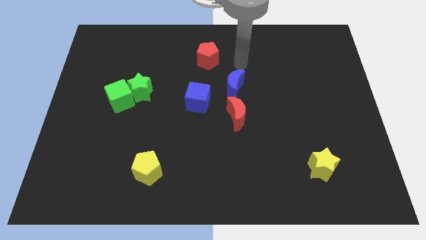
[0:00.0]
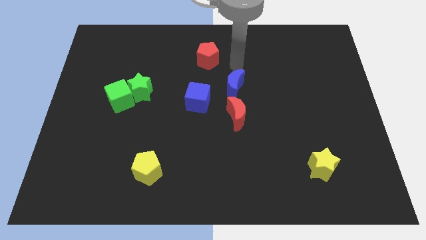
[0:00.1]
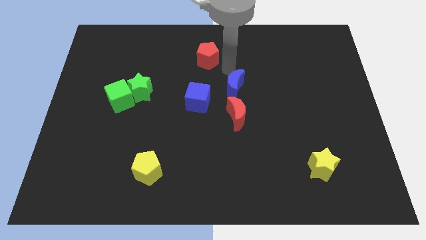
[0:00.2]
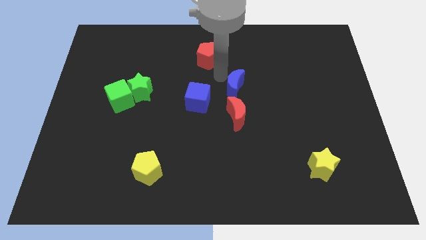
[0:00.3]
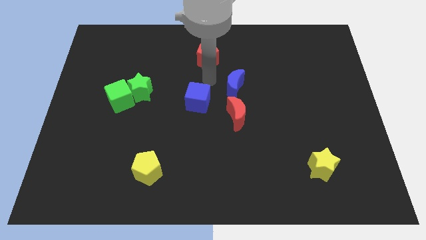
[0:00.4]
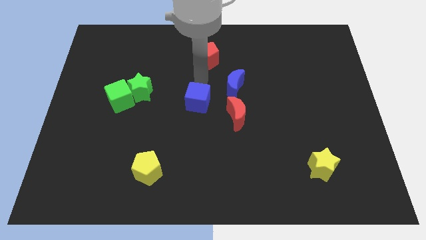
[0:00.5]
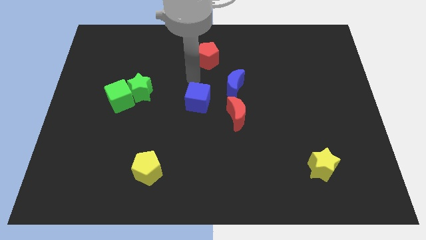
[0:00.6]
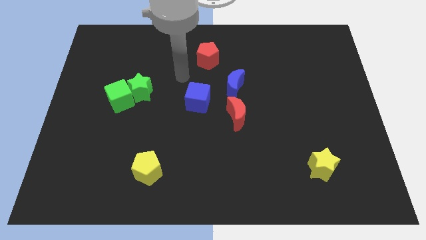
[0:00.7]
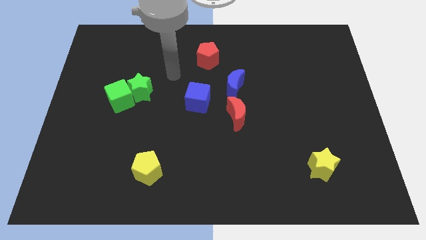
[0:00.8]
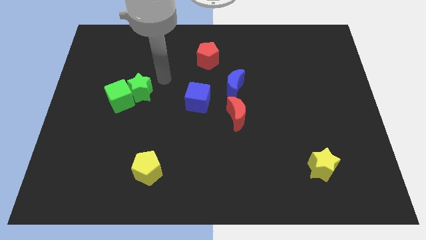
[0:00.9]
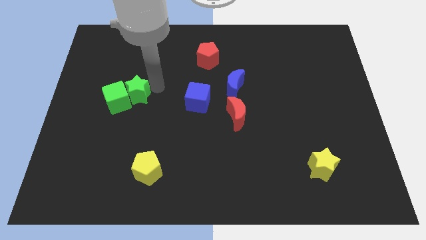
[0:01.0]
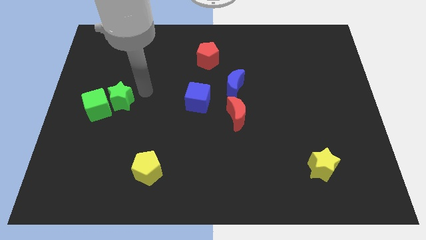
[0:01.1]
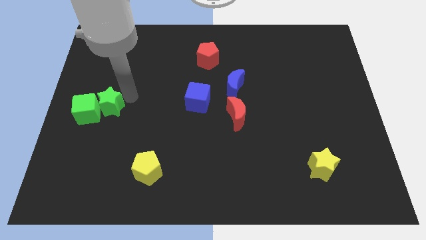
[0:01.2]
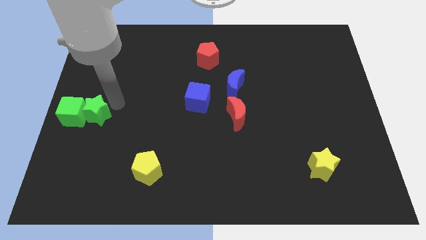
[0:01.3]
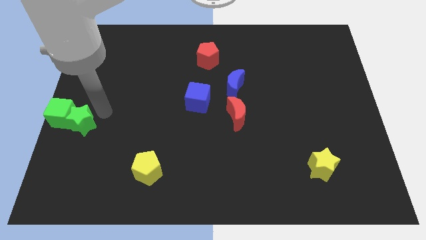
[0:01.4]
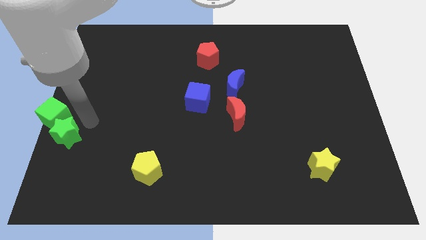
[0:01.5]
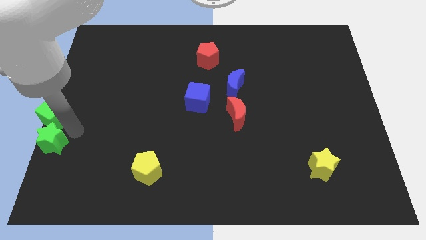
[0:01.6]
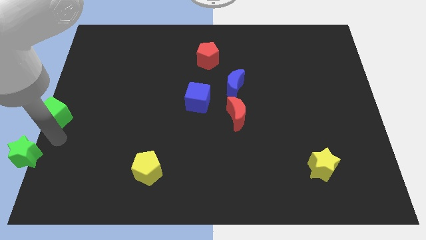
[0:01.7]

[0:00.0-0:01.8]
pull the green cube apart from the green star

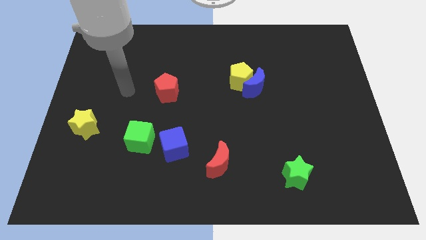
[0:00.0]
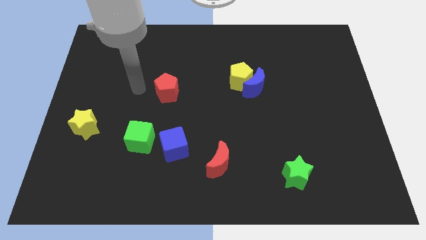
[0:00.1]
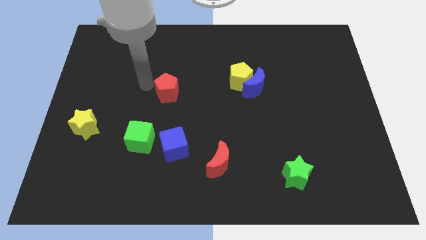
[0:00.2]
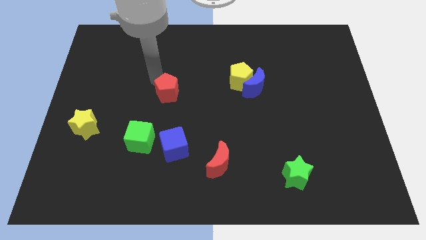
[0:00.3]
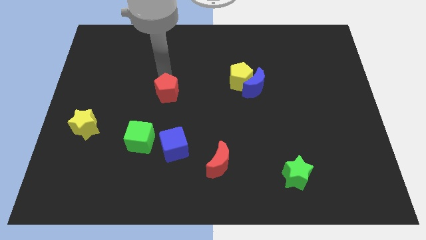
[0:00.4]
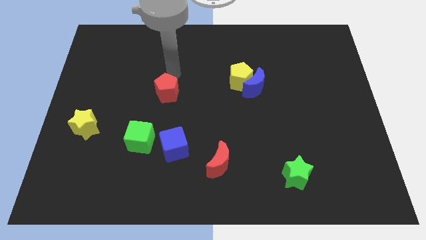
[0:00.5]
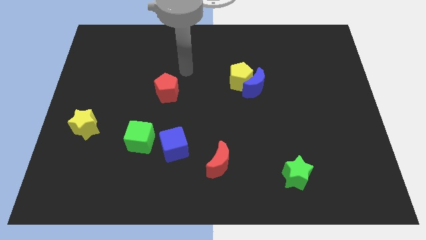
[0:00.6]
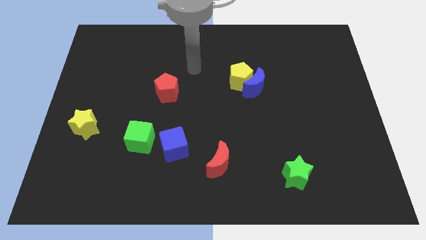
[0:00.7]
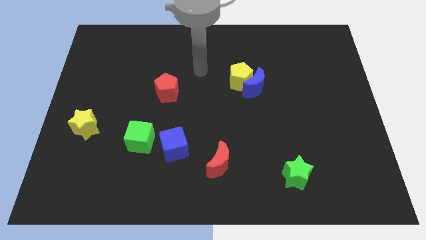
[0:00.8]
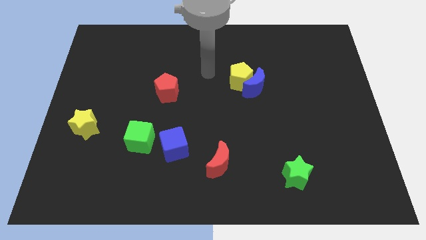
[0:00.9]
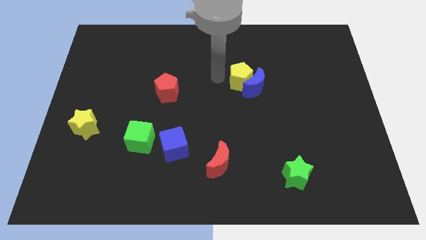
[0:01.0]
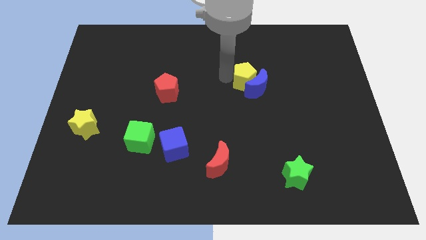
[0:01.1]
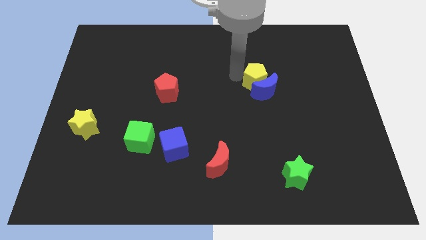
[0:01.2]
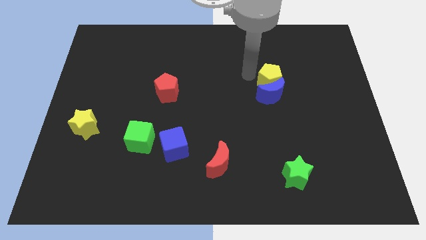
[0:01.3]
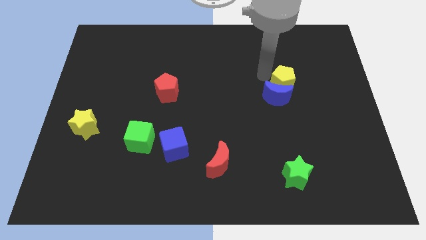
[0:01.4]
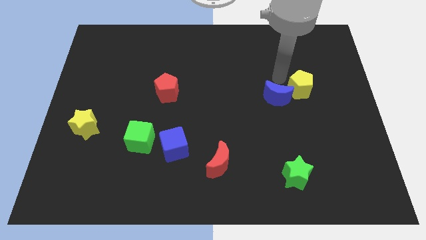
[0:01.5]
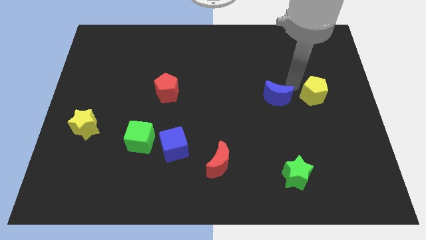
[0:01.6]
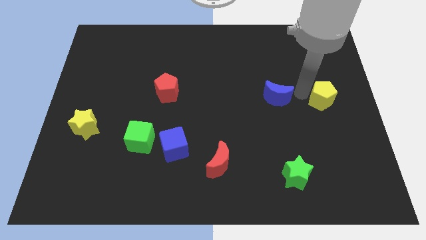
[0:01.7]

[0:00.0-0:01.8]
separate the blue moon from the yellow pentagon

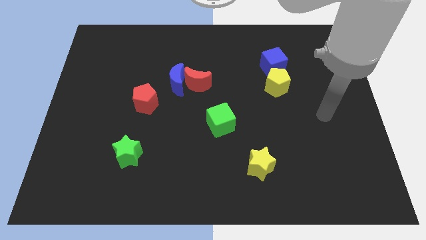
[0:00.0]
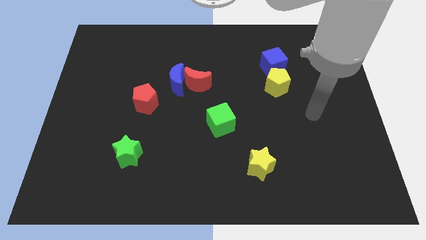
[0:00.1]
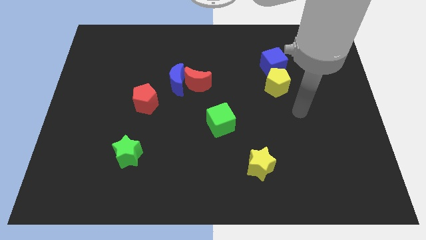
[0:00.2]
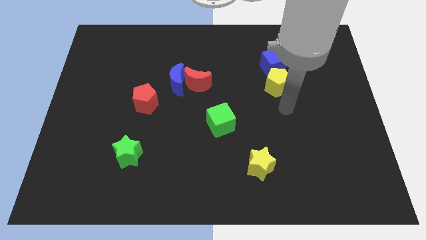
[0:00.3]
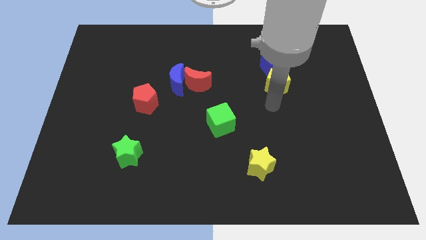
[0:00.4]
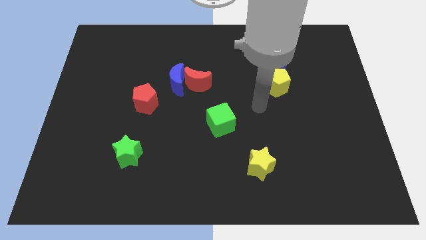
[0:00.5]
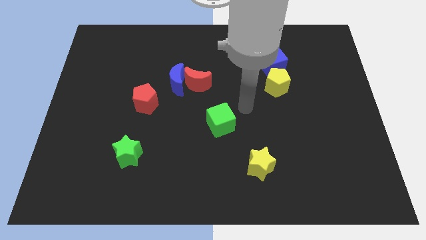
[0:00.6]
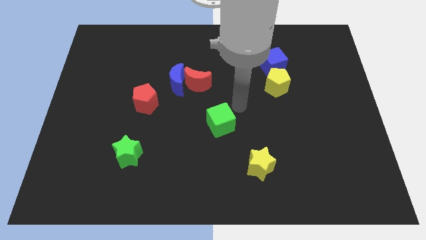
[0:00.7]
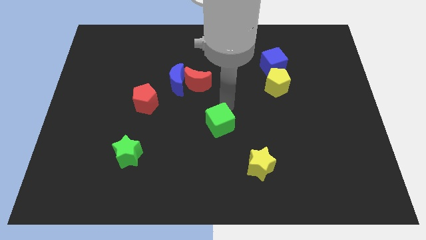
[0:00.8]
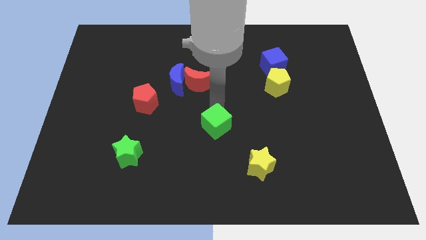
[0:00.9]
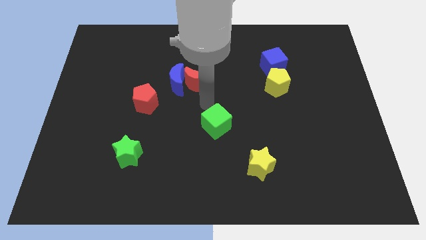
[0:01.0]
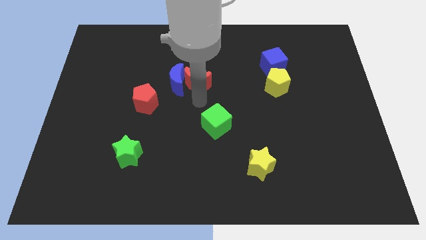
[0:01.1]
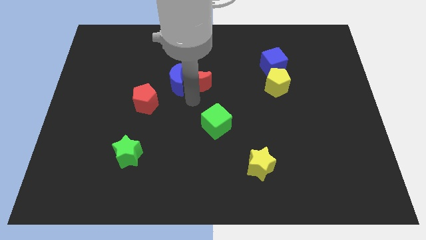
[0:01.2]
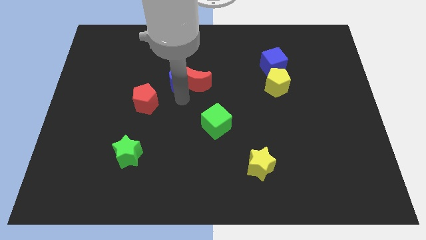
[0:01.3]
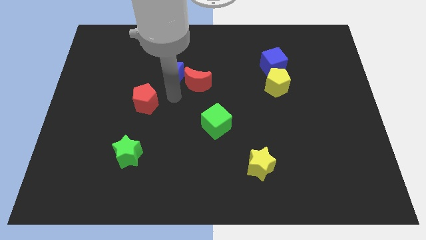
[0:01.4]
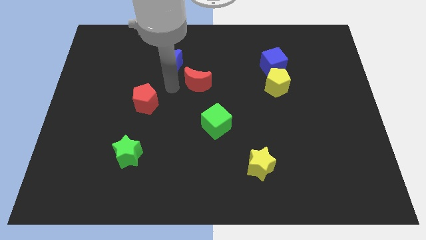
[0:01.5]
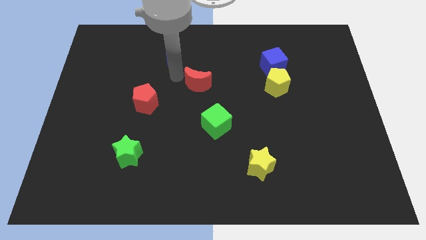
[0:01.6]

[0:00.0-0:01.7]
pull the red moon apart from the blue moon

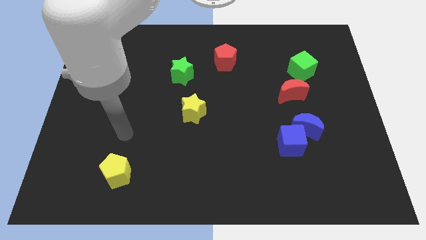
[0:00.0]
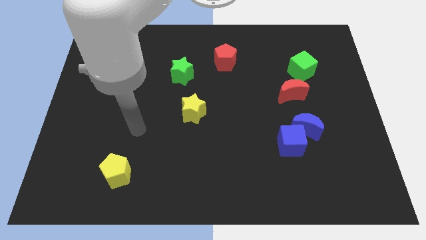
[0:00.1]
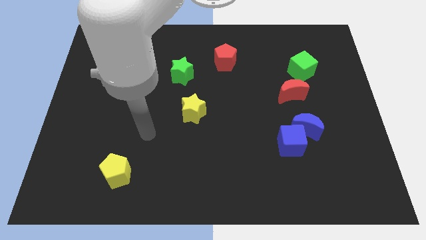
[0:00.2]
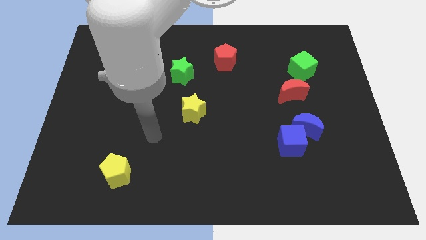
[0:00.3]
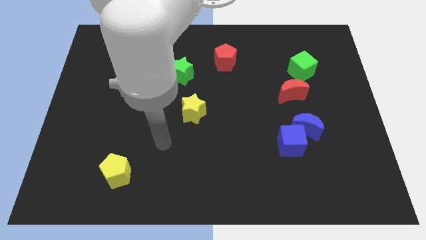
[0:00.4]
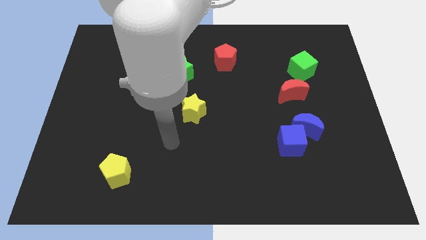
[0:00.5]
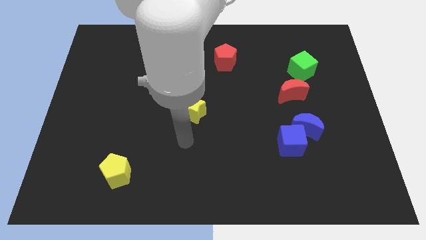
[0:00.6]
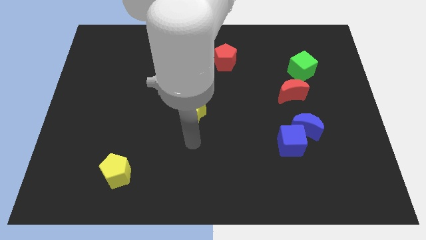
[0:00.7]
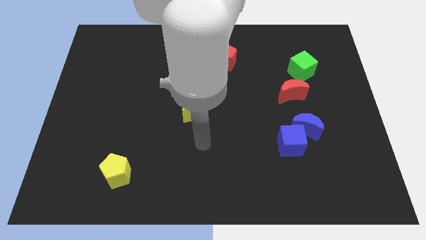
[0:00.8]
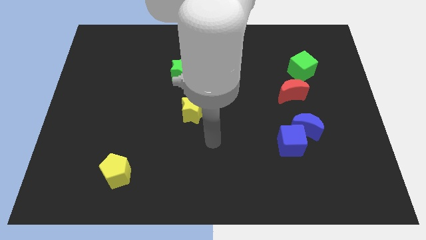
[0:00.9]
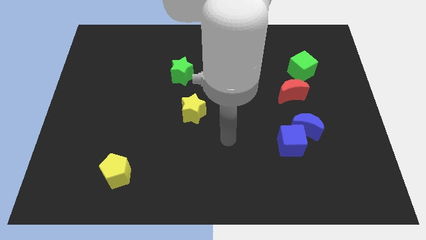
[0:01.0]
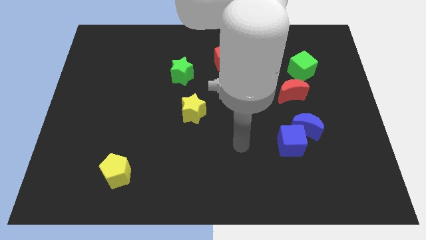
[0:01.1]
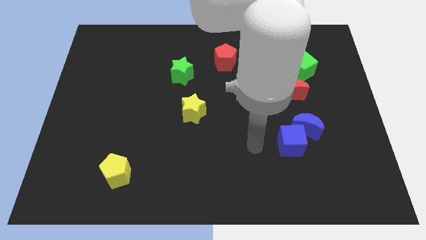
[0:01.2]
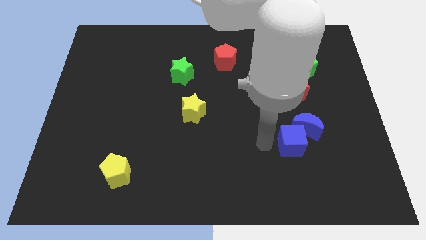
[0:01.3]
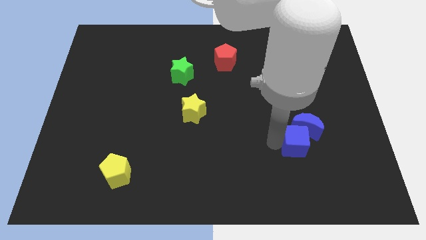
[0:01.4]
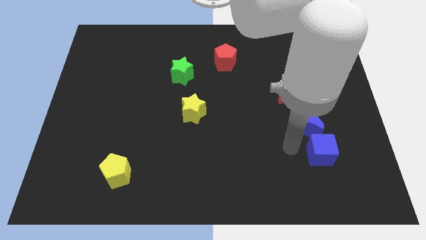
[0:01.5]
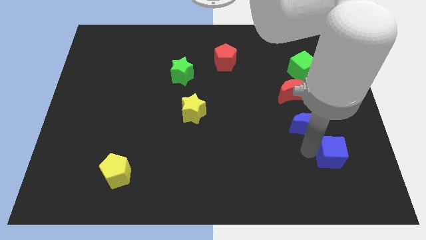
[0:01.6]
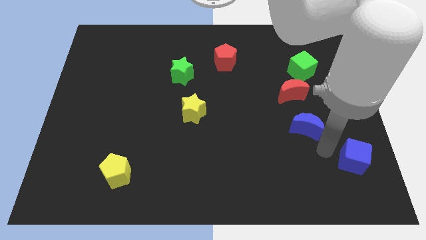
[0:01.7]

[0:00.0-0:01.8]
separate the blue moon from the blue cube

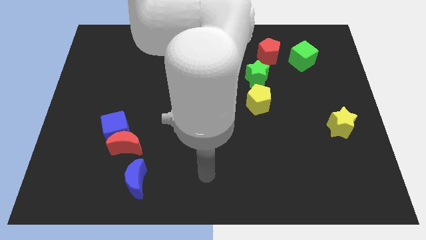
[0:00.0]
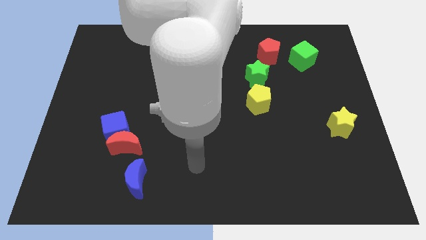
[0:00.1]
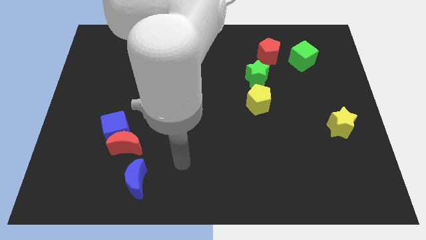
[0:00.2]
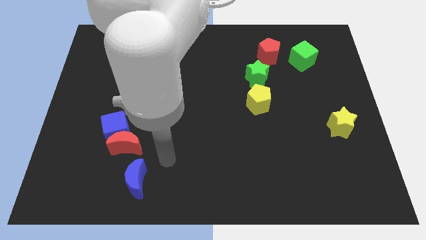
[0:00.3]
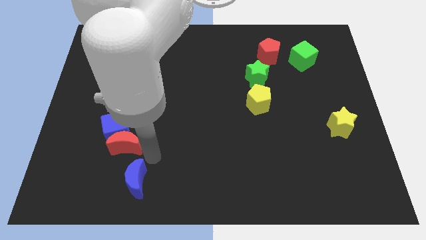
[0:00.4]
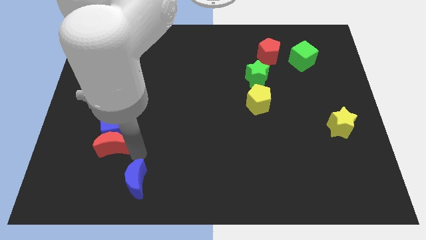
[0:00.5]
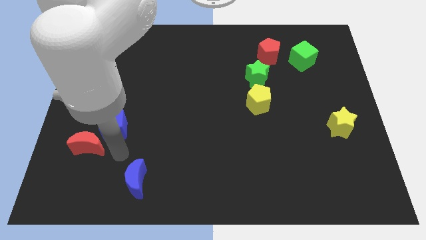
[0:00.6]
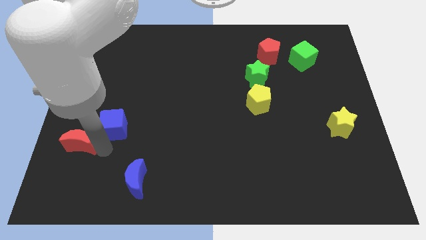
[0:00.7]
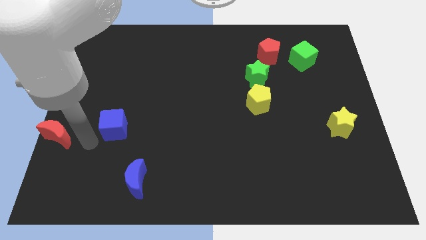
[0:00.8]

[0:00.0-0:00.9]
separate the blue cube from the red moon

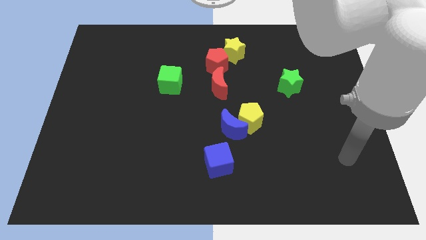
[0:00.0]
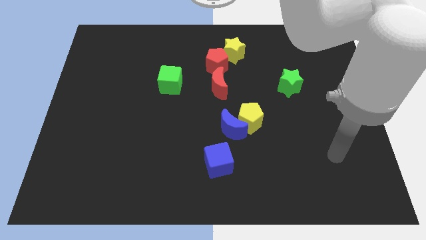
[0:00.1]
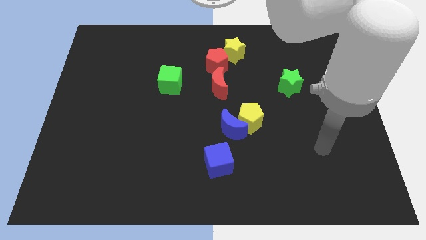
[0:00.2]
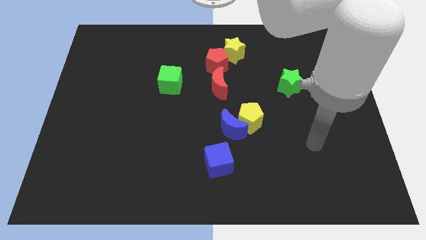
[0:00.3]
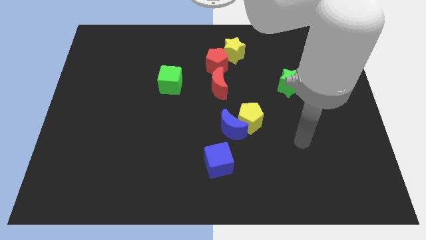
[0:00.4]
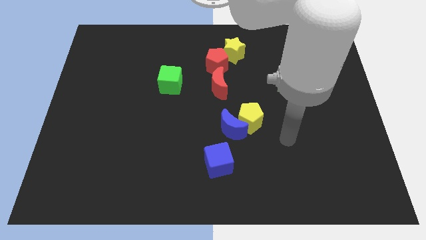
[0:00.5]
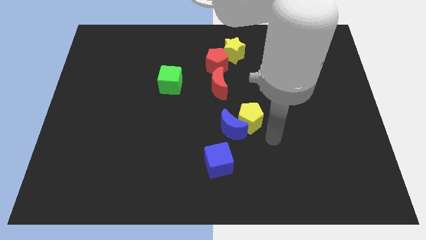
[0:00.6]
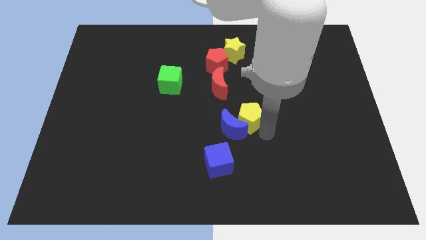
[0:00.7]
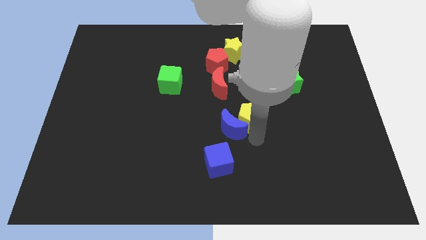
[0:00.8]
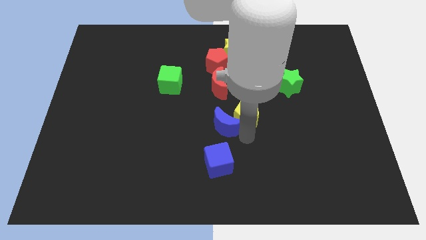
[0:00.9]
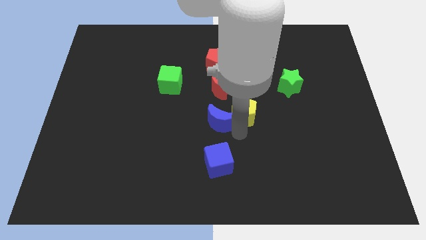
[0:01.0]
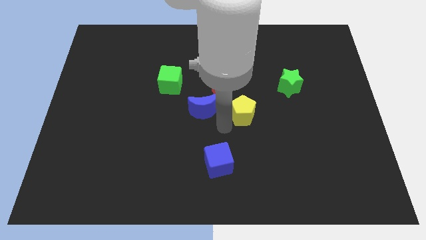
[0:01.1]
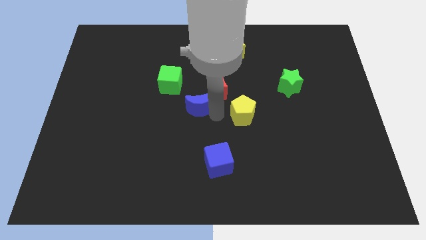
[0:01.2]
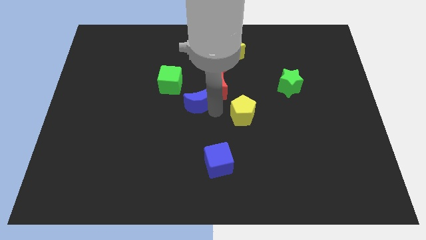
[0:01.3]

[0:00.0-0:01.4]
move the yellow pentagon away from the blue moon
